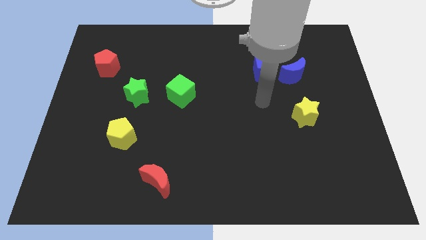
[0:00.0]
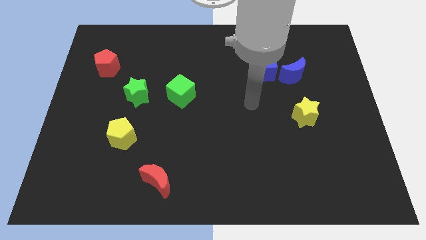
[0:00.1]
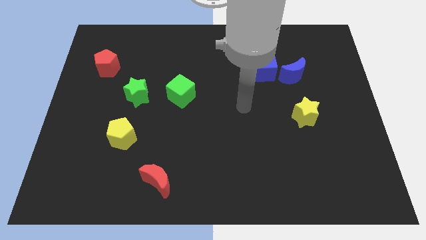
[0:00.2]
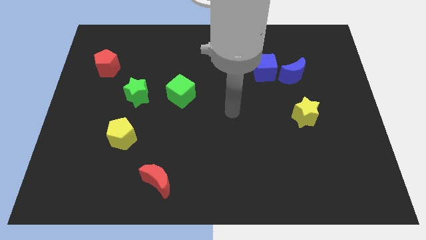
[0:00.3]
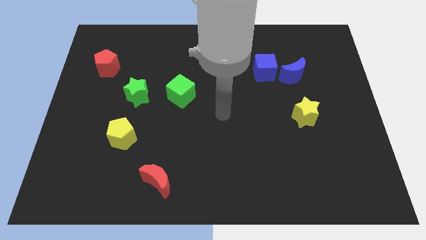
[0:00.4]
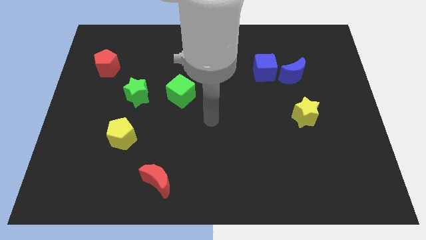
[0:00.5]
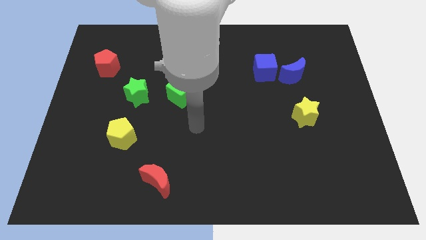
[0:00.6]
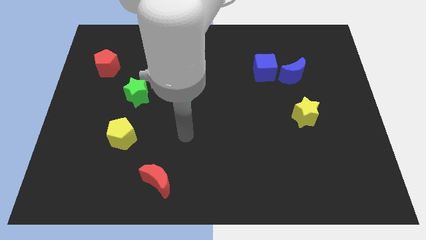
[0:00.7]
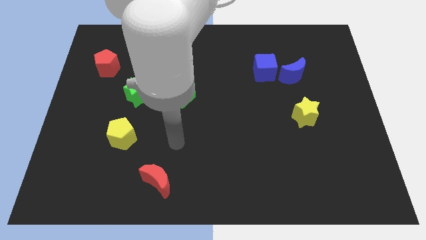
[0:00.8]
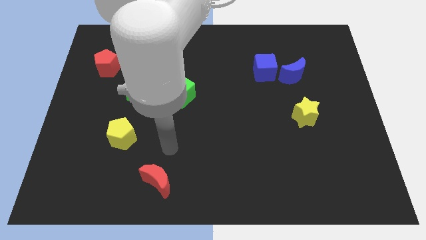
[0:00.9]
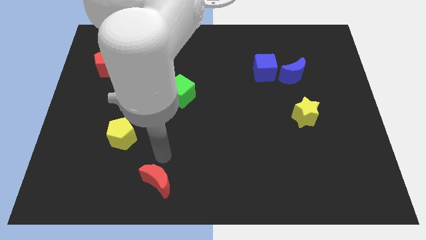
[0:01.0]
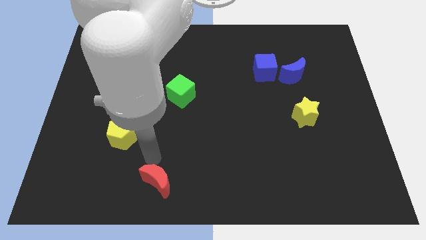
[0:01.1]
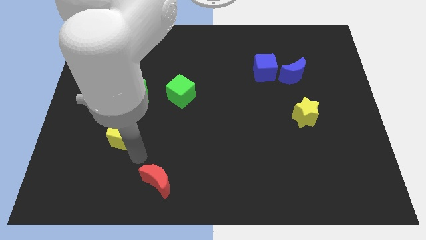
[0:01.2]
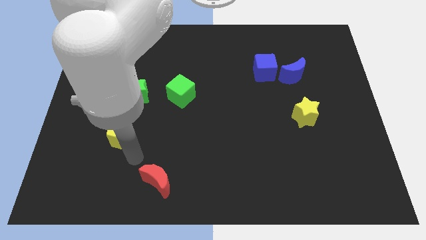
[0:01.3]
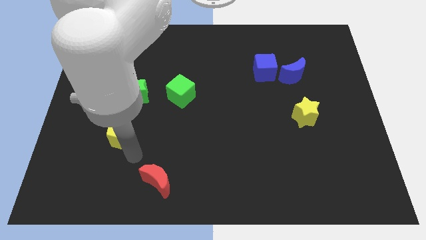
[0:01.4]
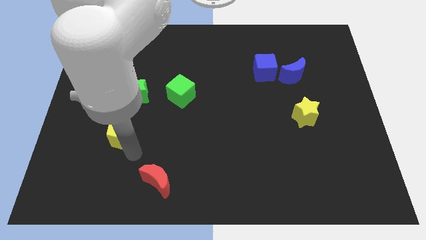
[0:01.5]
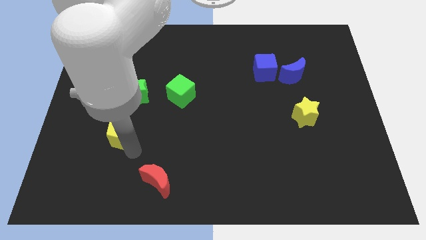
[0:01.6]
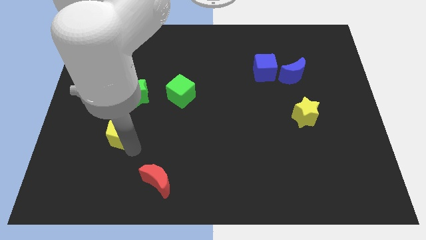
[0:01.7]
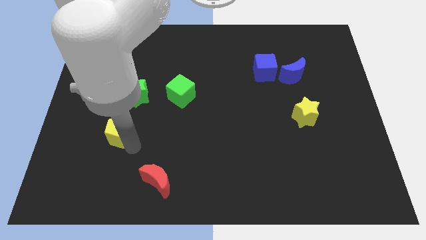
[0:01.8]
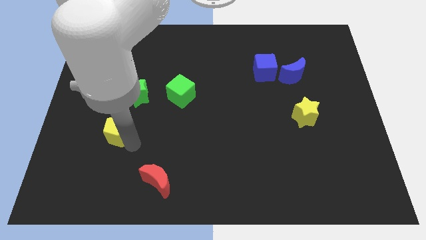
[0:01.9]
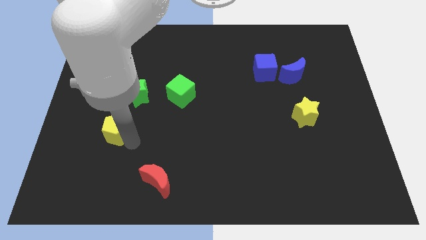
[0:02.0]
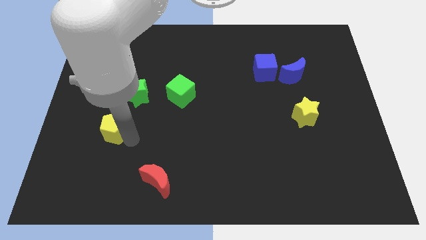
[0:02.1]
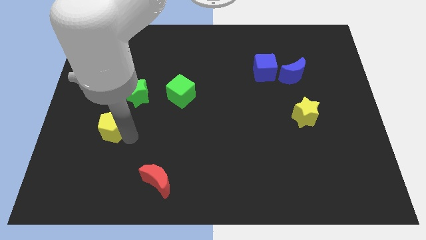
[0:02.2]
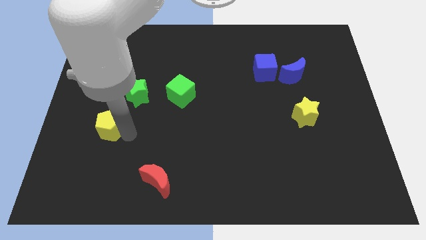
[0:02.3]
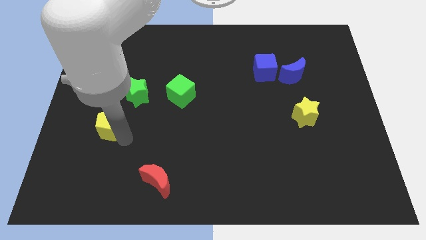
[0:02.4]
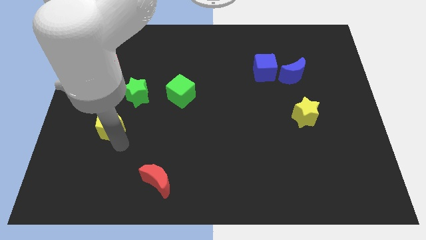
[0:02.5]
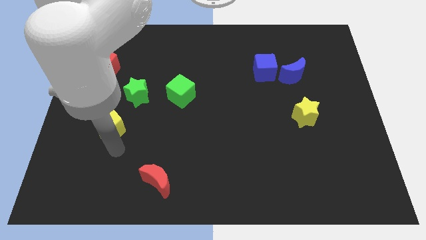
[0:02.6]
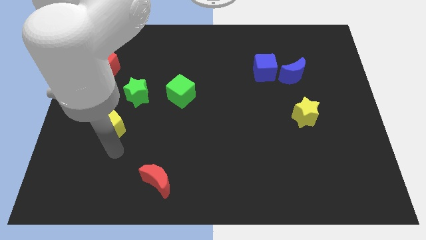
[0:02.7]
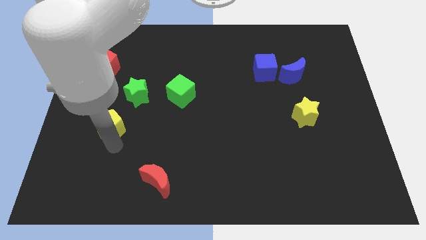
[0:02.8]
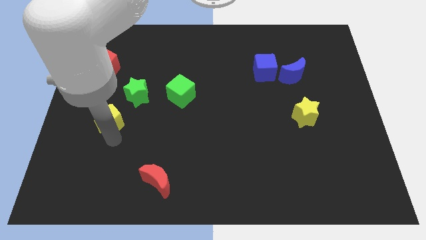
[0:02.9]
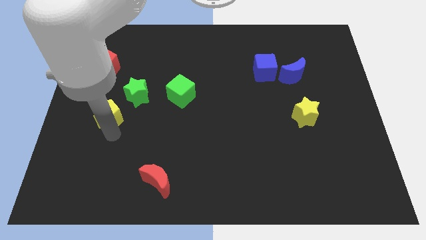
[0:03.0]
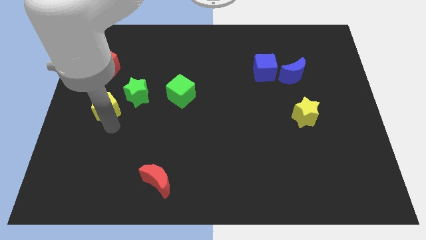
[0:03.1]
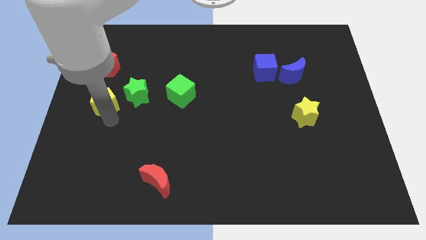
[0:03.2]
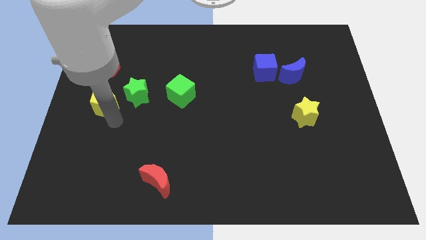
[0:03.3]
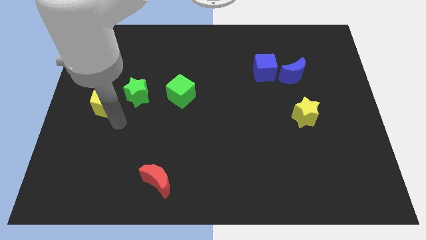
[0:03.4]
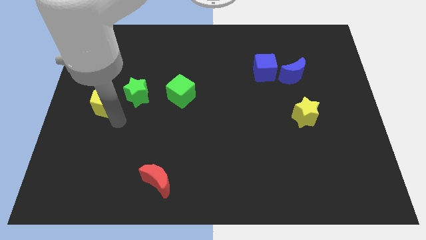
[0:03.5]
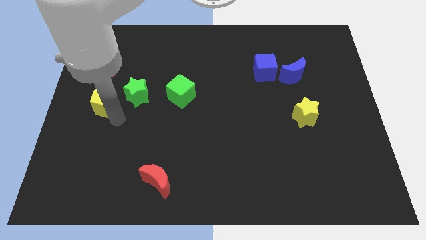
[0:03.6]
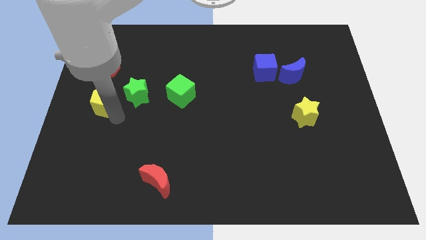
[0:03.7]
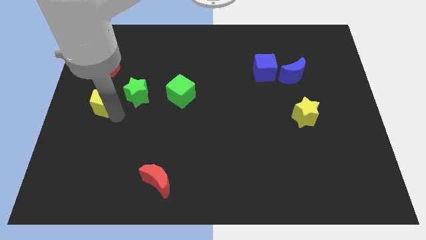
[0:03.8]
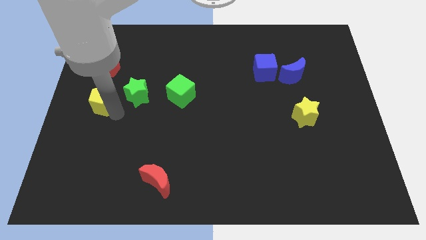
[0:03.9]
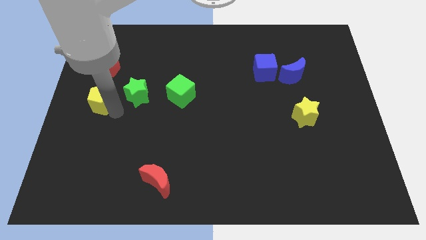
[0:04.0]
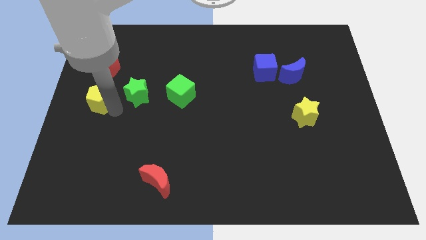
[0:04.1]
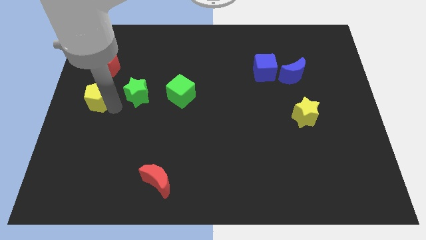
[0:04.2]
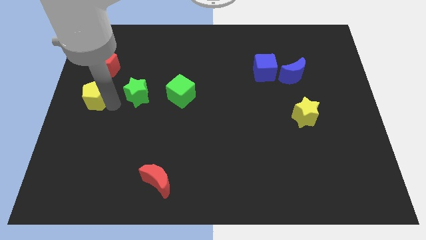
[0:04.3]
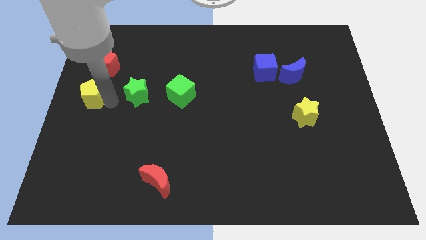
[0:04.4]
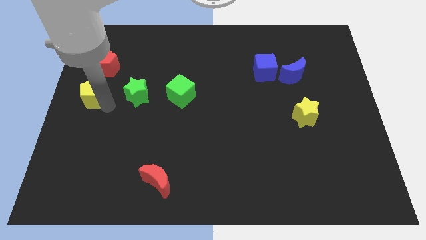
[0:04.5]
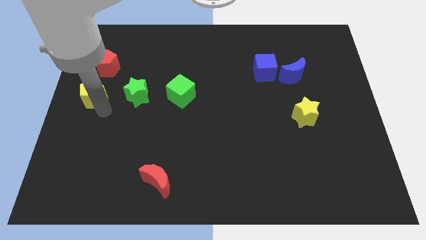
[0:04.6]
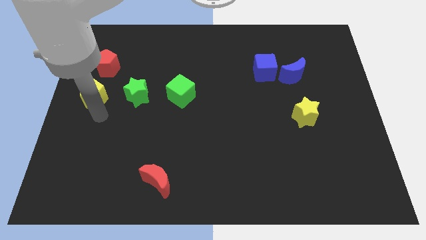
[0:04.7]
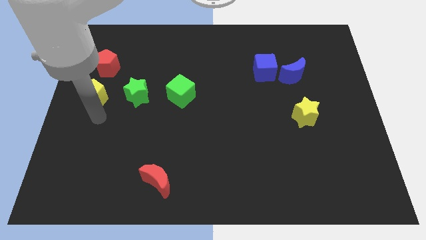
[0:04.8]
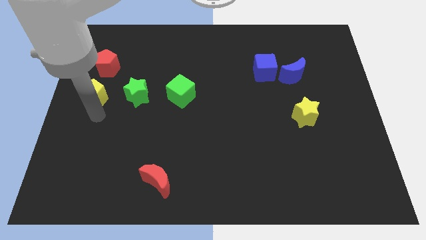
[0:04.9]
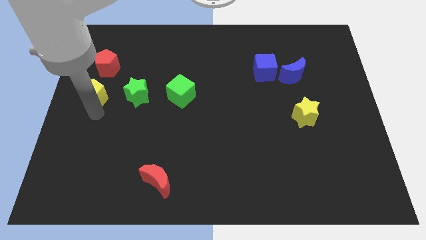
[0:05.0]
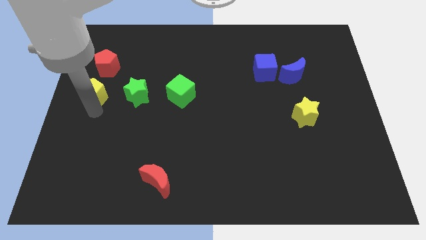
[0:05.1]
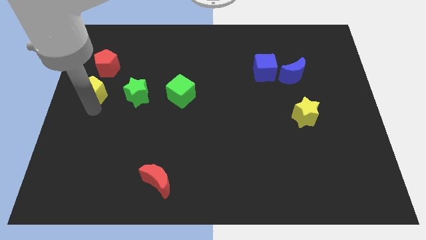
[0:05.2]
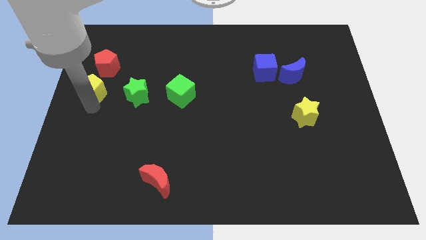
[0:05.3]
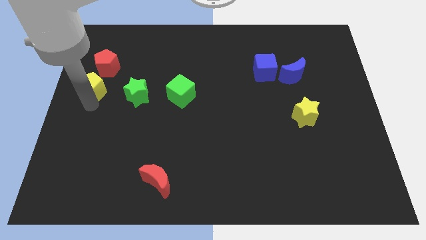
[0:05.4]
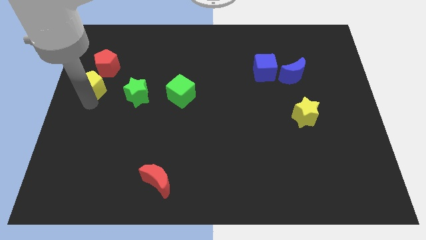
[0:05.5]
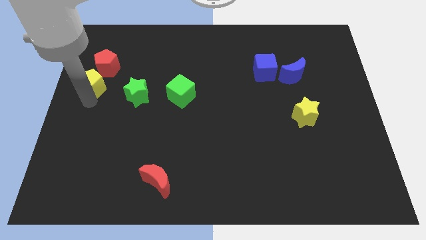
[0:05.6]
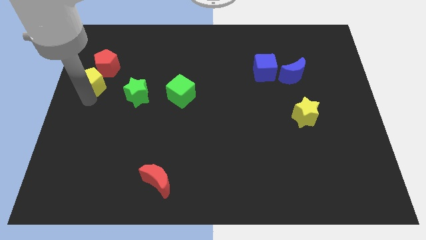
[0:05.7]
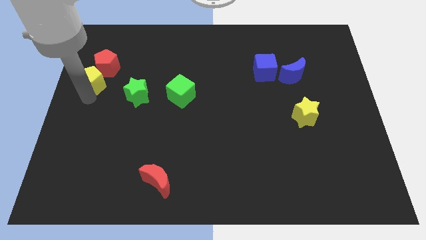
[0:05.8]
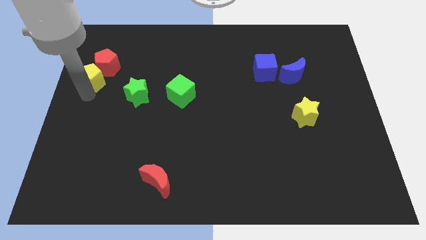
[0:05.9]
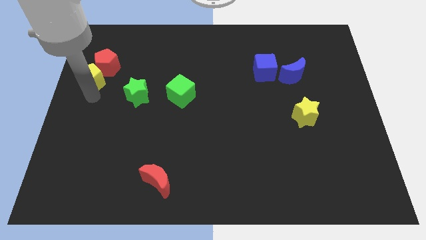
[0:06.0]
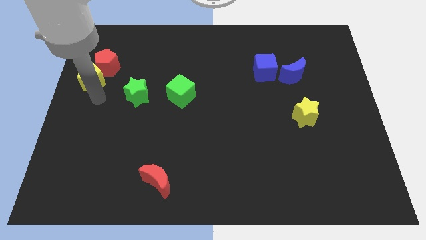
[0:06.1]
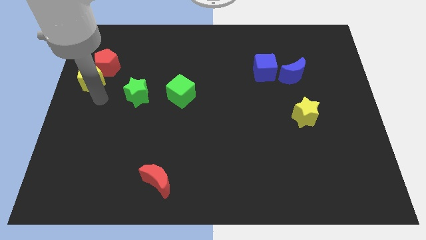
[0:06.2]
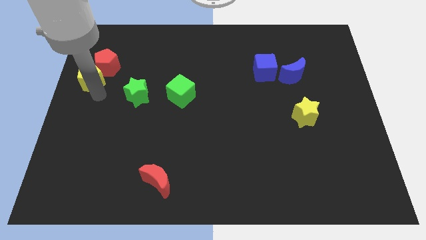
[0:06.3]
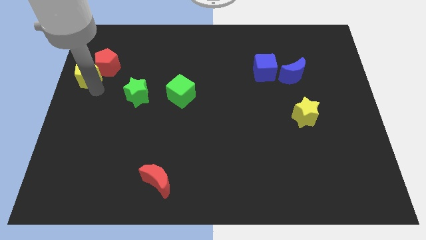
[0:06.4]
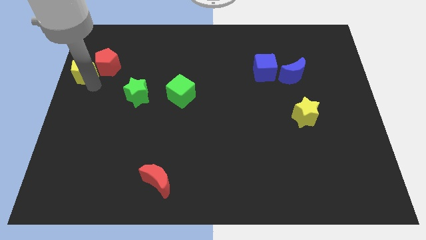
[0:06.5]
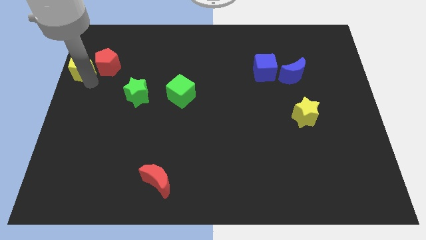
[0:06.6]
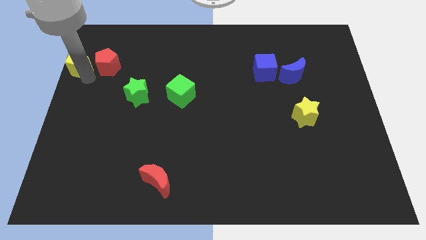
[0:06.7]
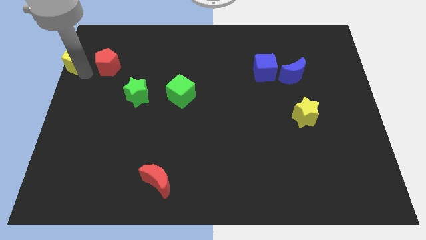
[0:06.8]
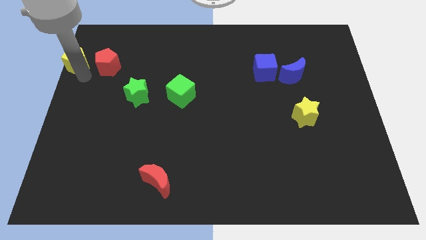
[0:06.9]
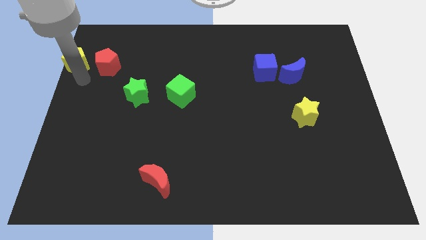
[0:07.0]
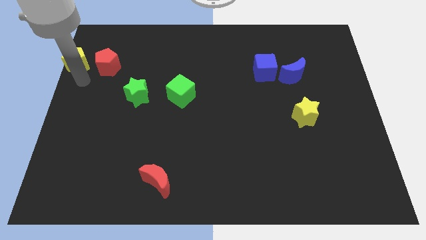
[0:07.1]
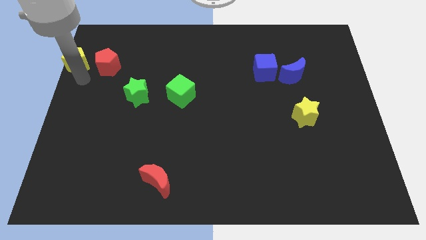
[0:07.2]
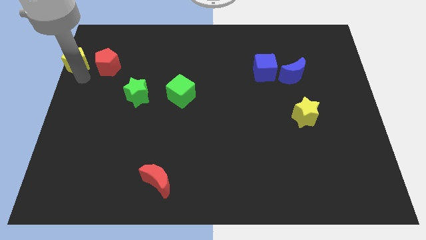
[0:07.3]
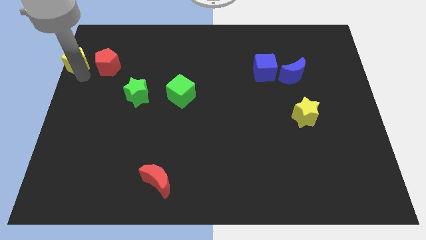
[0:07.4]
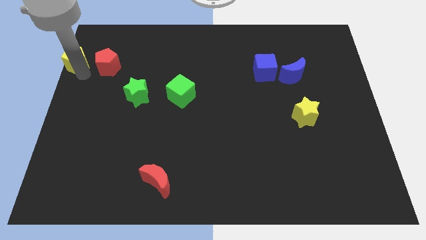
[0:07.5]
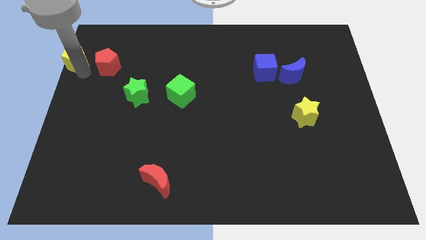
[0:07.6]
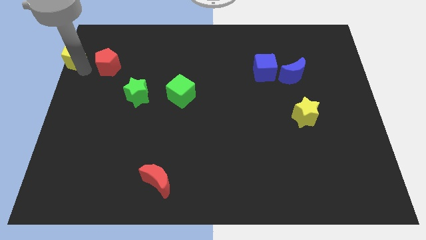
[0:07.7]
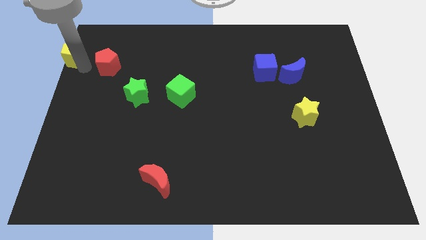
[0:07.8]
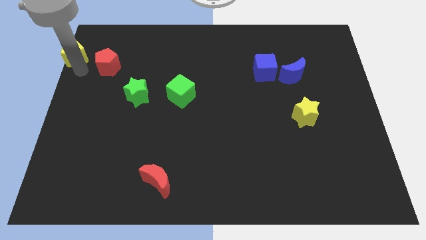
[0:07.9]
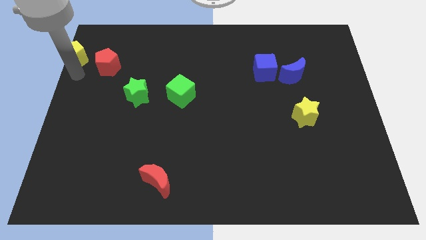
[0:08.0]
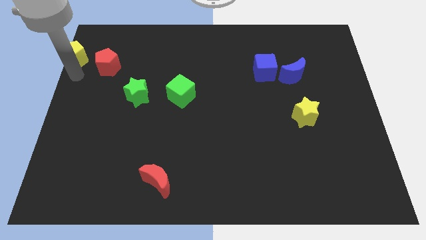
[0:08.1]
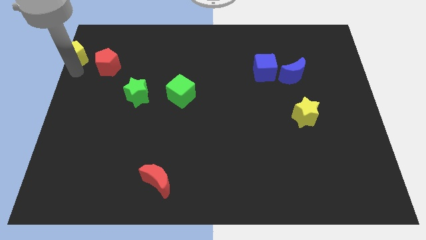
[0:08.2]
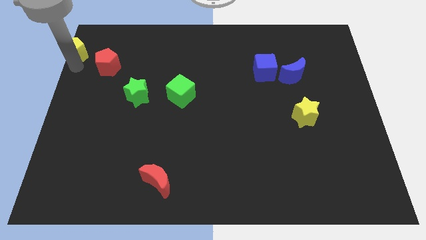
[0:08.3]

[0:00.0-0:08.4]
move the yellow pentagon to the upper left corner
